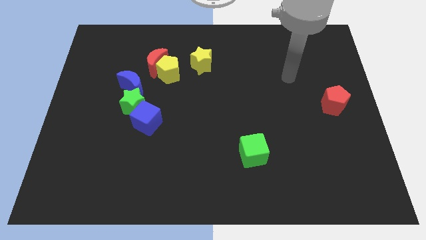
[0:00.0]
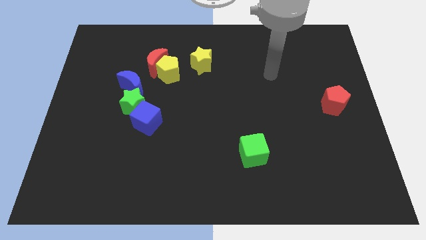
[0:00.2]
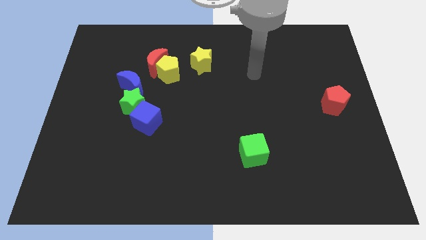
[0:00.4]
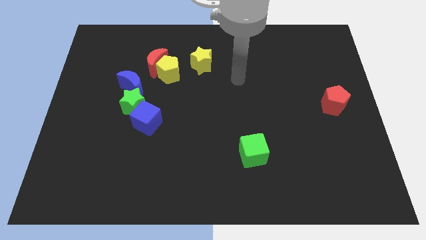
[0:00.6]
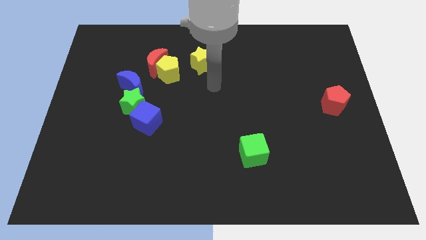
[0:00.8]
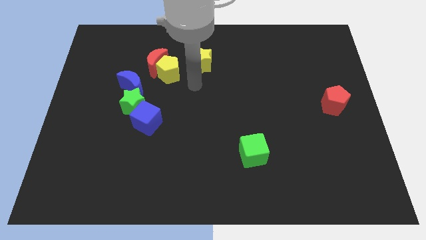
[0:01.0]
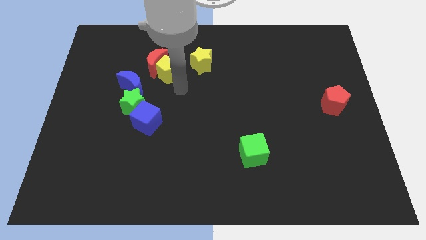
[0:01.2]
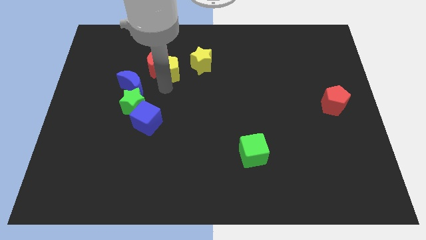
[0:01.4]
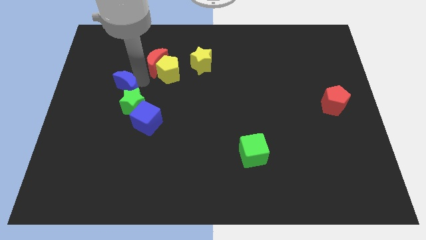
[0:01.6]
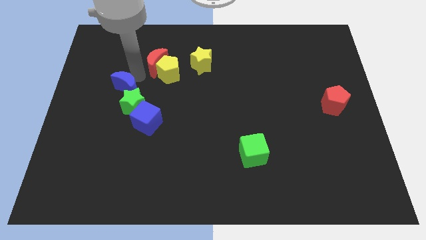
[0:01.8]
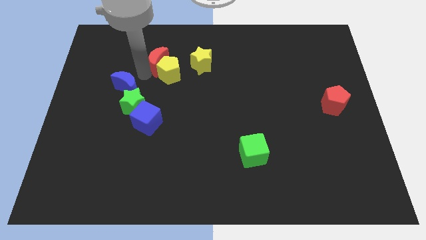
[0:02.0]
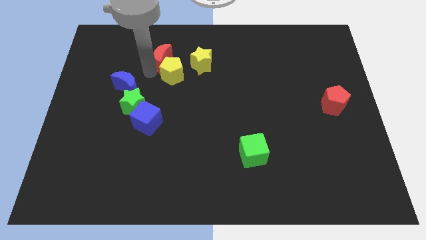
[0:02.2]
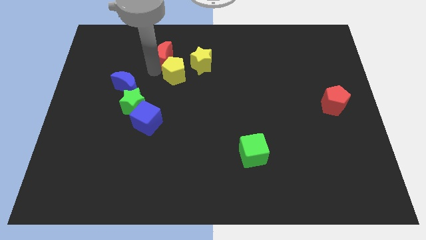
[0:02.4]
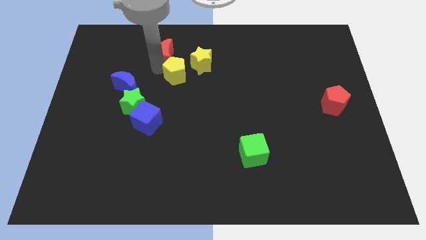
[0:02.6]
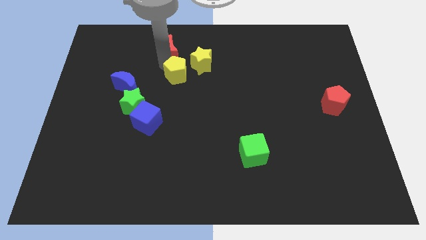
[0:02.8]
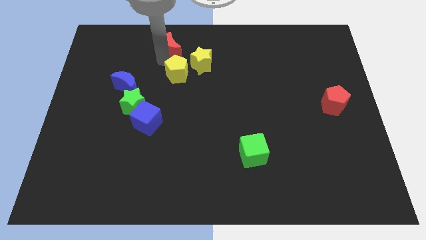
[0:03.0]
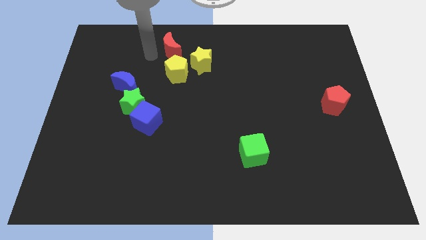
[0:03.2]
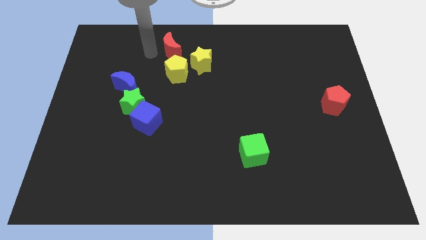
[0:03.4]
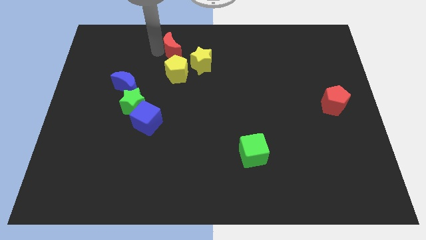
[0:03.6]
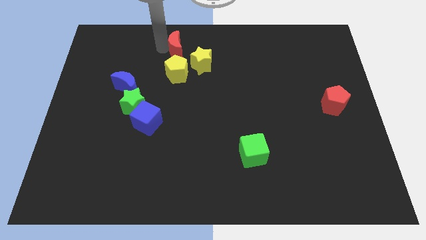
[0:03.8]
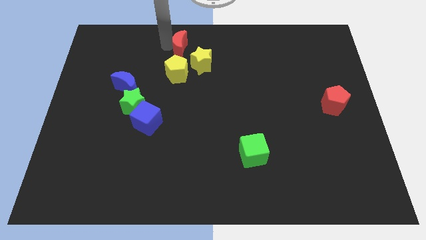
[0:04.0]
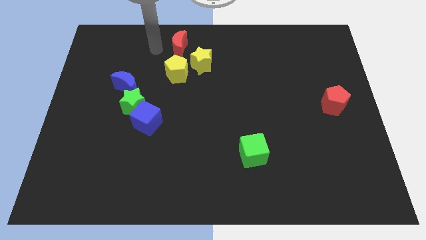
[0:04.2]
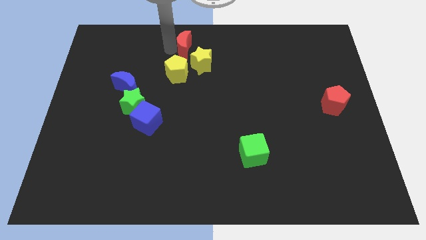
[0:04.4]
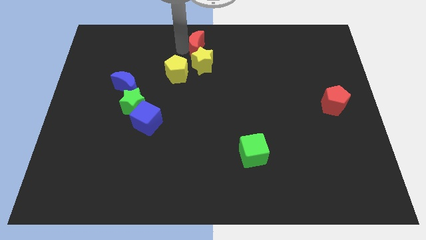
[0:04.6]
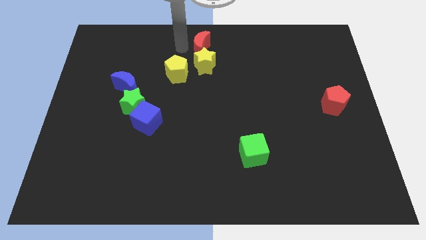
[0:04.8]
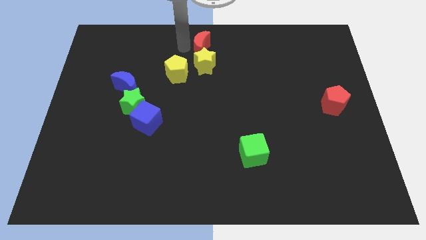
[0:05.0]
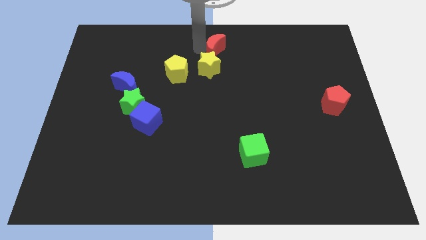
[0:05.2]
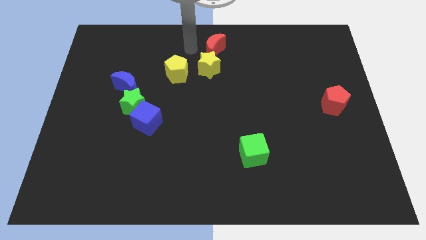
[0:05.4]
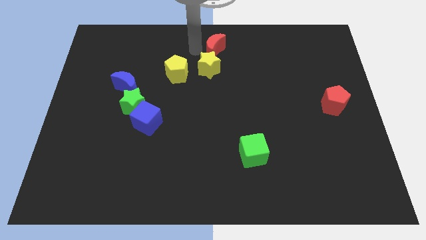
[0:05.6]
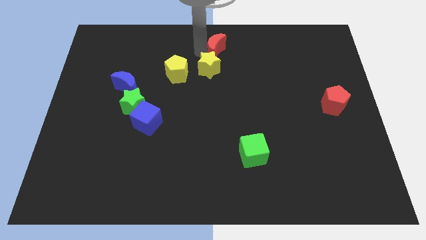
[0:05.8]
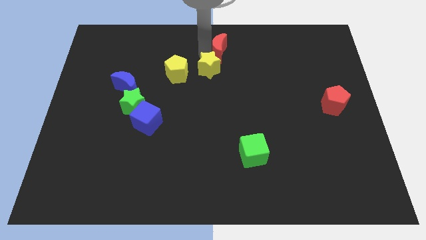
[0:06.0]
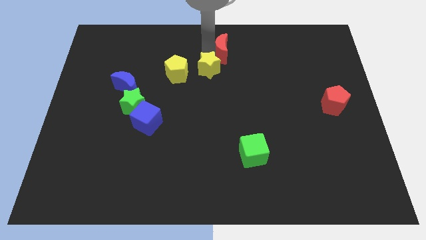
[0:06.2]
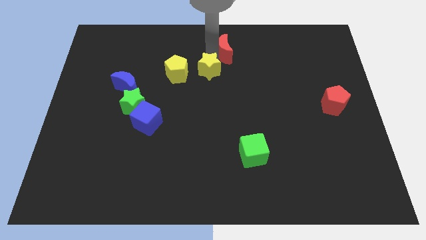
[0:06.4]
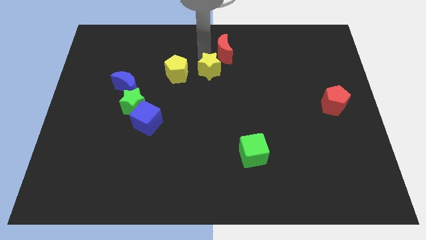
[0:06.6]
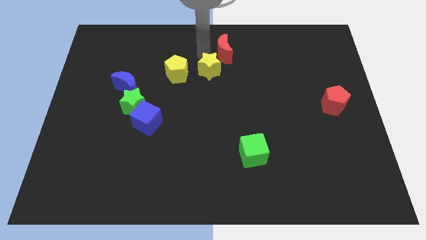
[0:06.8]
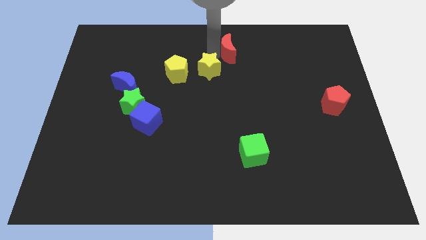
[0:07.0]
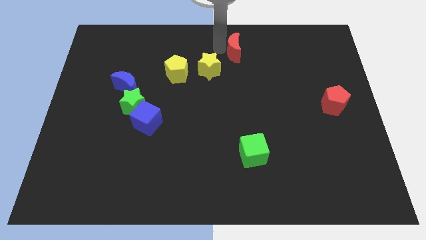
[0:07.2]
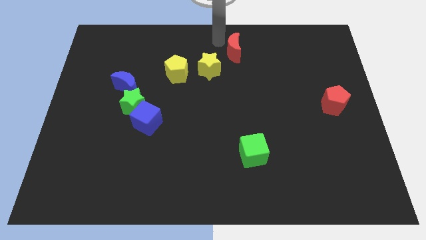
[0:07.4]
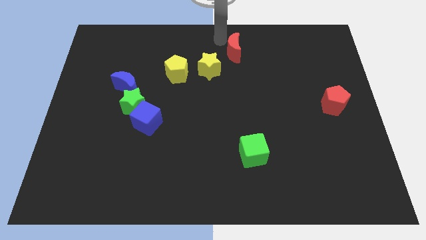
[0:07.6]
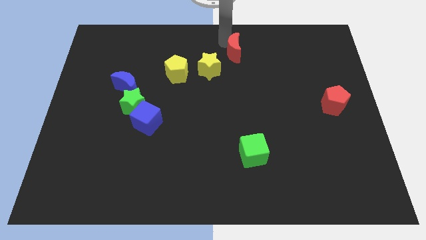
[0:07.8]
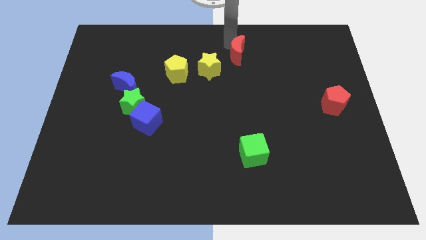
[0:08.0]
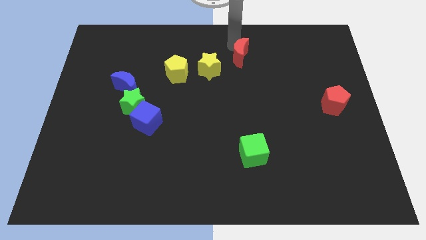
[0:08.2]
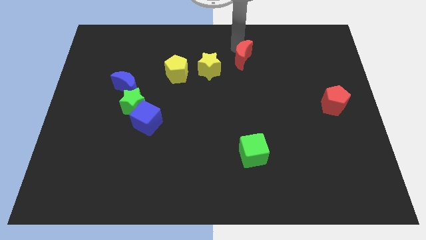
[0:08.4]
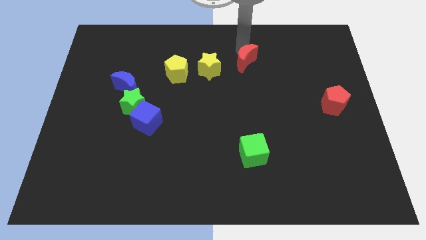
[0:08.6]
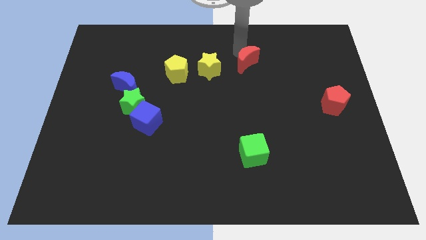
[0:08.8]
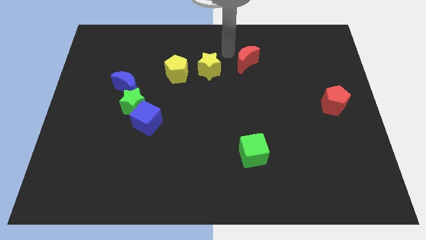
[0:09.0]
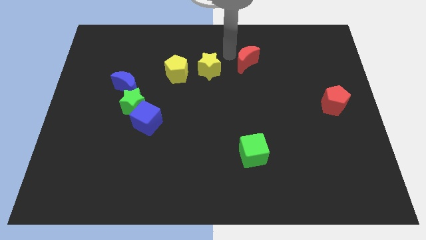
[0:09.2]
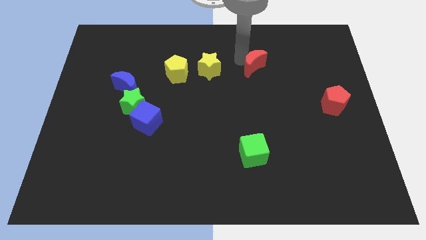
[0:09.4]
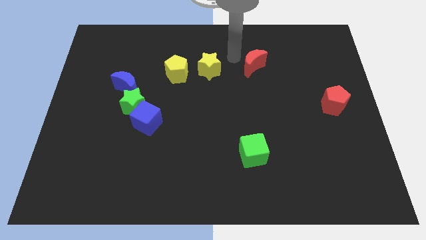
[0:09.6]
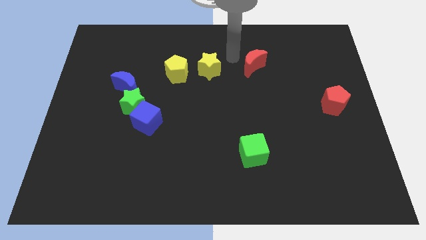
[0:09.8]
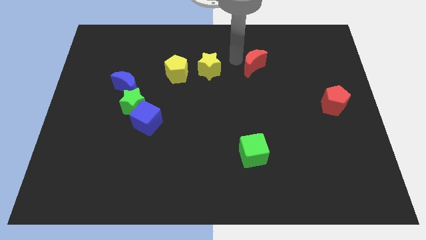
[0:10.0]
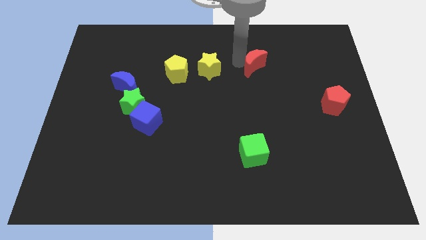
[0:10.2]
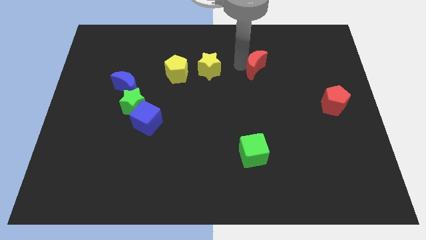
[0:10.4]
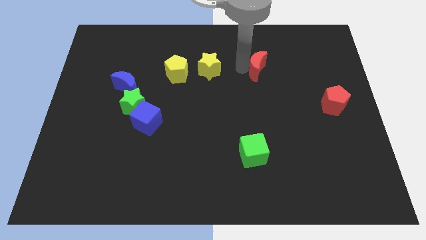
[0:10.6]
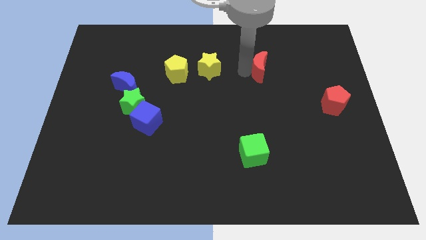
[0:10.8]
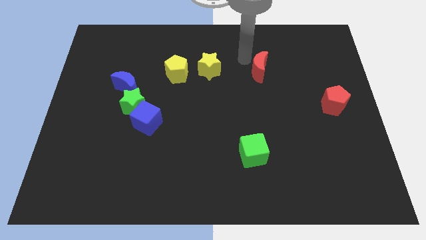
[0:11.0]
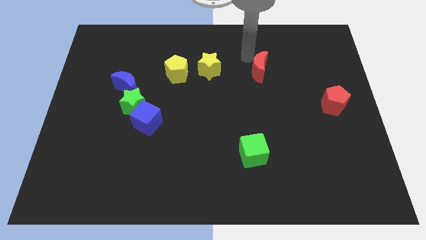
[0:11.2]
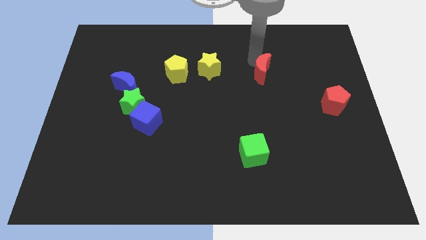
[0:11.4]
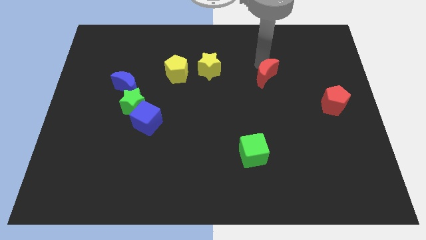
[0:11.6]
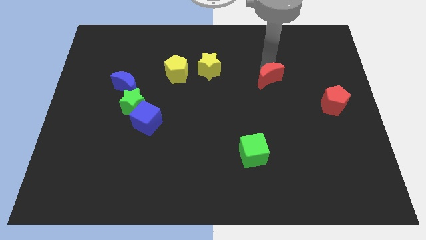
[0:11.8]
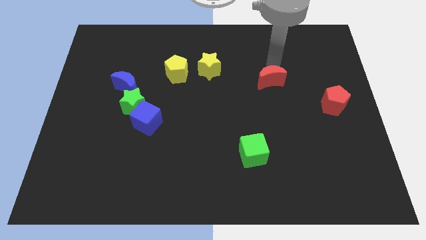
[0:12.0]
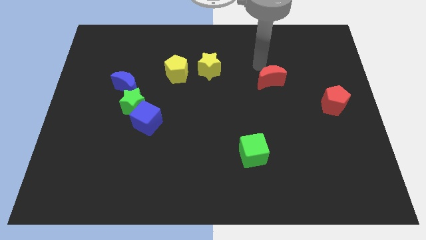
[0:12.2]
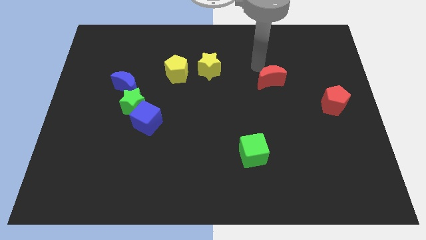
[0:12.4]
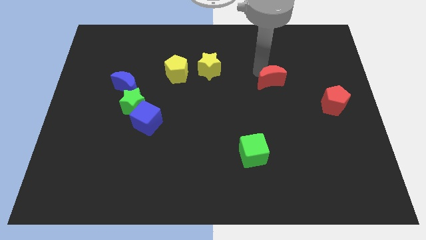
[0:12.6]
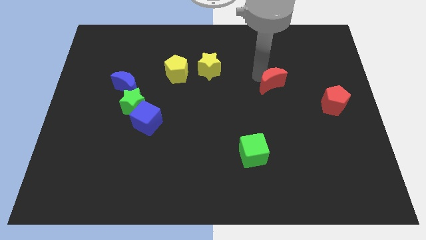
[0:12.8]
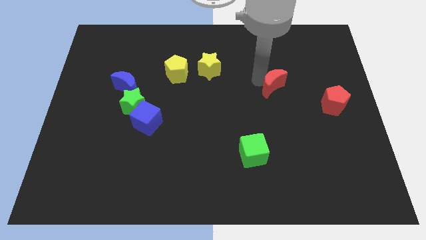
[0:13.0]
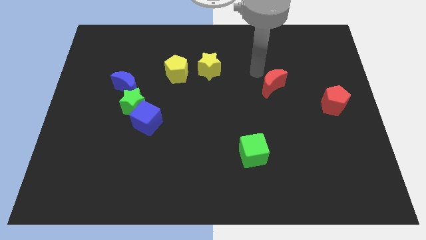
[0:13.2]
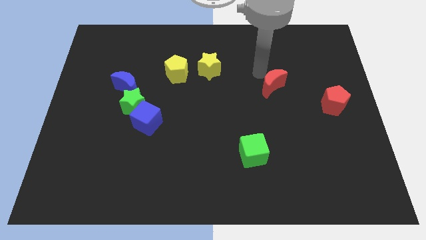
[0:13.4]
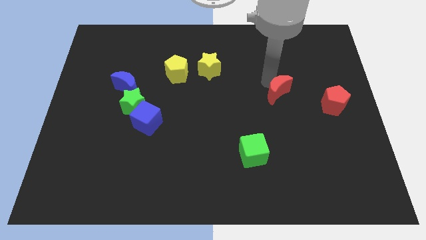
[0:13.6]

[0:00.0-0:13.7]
put the red moon to the left of the red pentagon
